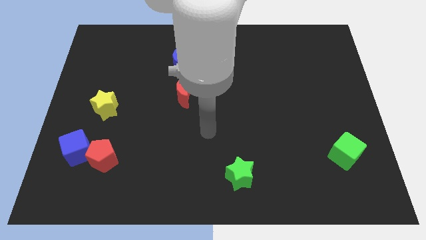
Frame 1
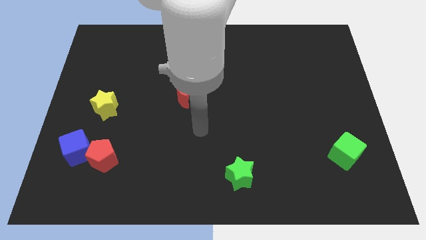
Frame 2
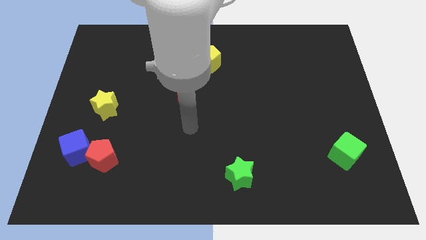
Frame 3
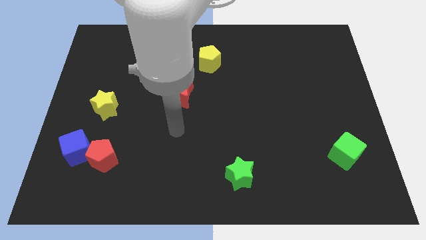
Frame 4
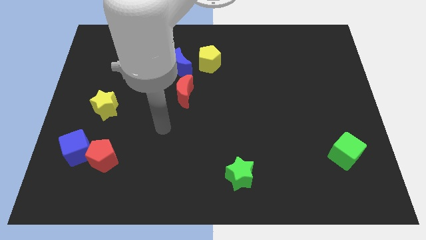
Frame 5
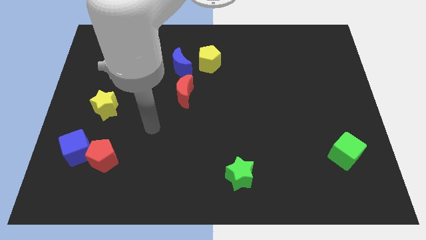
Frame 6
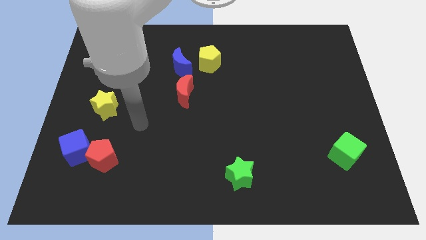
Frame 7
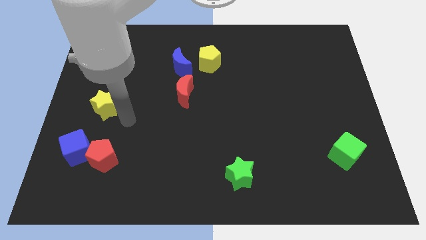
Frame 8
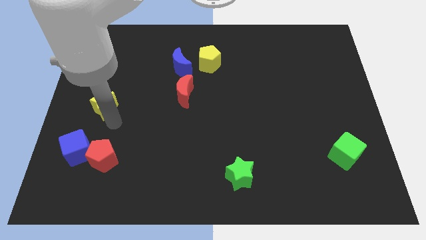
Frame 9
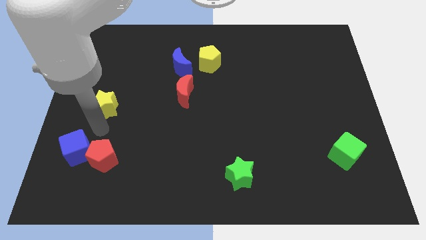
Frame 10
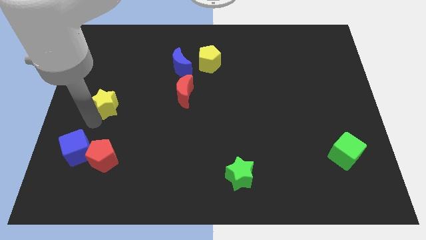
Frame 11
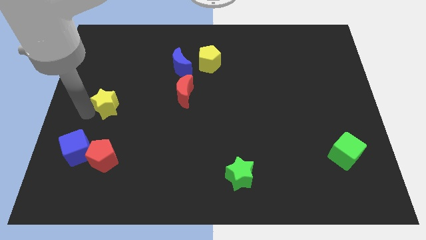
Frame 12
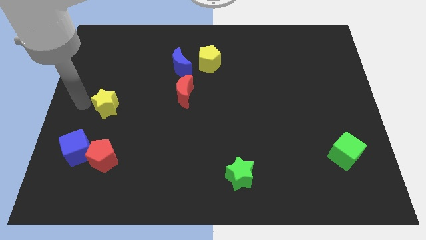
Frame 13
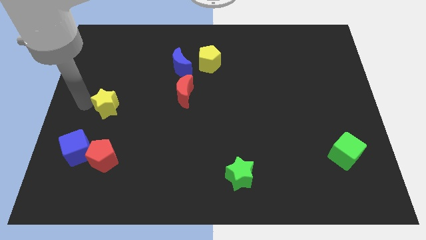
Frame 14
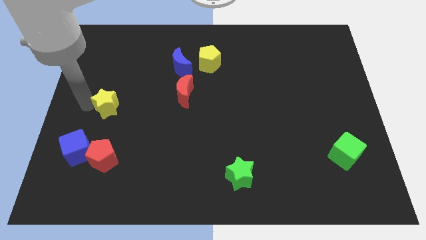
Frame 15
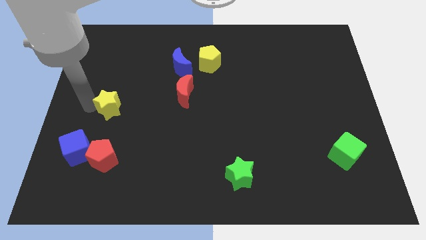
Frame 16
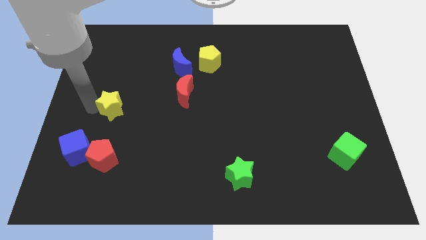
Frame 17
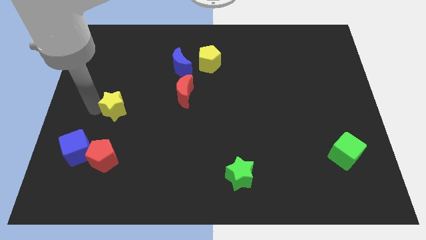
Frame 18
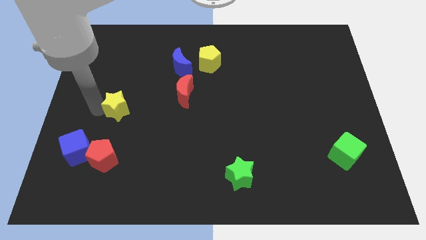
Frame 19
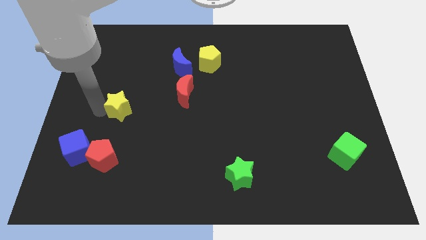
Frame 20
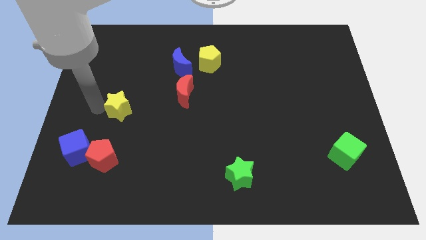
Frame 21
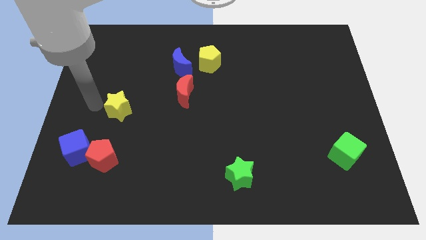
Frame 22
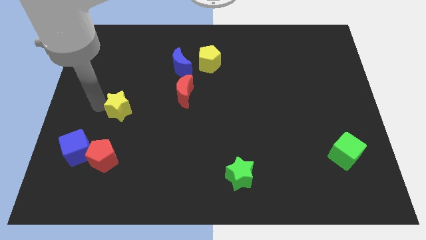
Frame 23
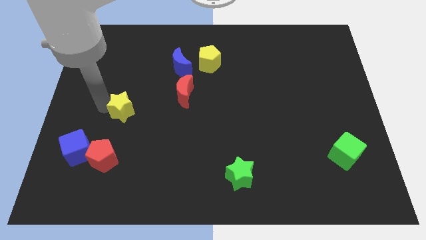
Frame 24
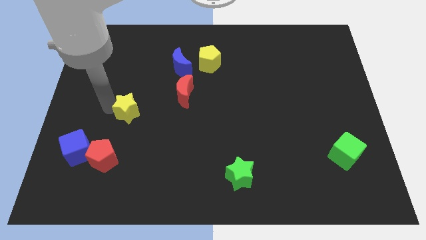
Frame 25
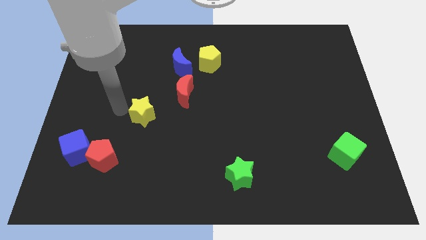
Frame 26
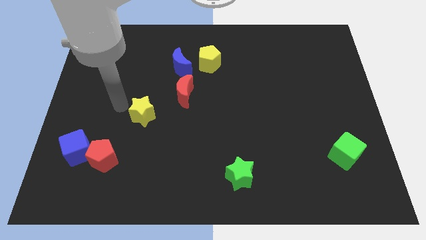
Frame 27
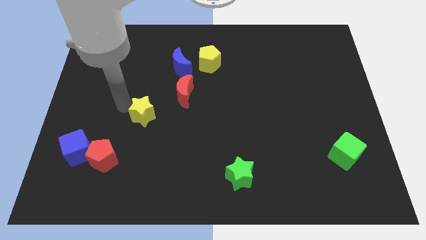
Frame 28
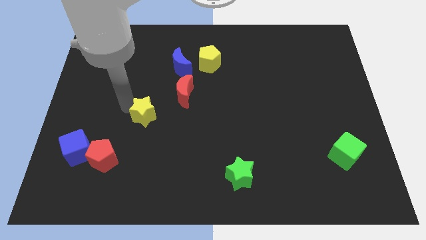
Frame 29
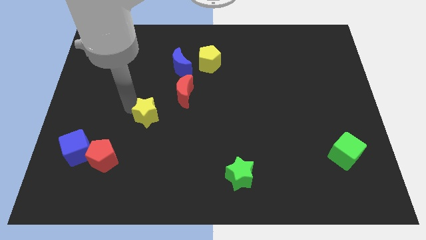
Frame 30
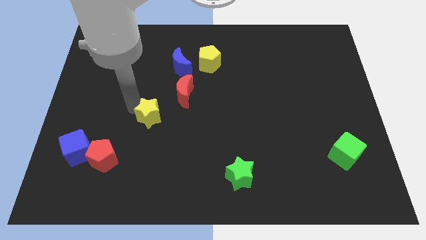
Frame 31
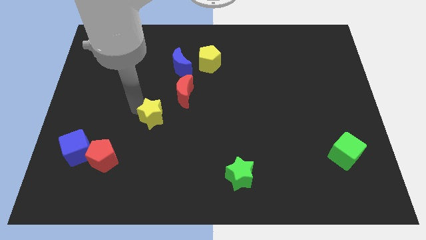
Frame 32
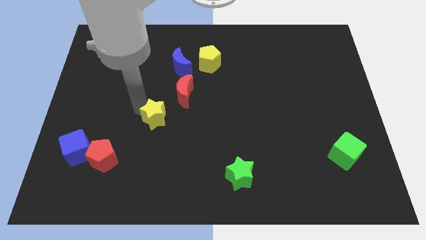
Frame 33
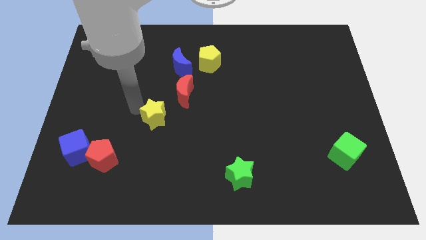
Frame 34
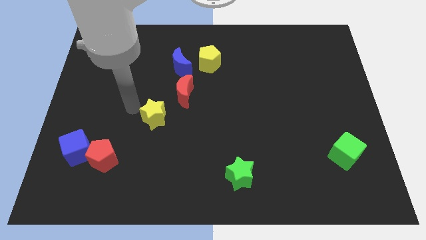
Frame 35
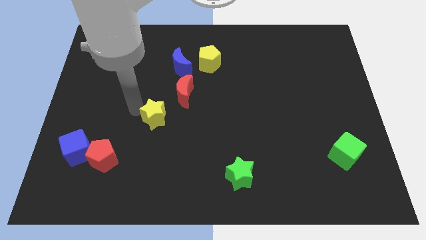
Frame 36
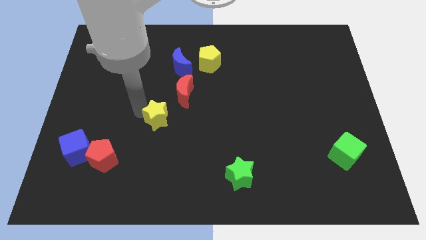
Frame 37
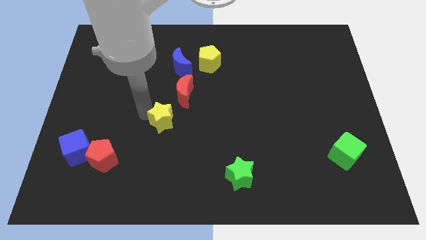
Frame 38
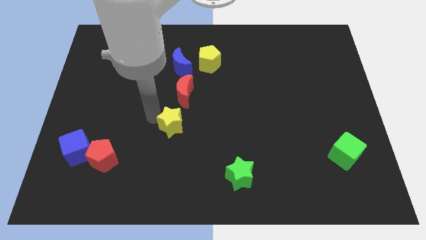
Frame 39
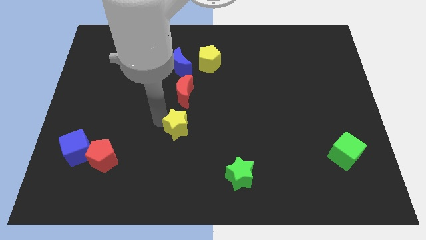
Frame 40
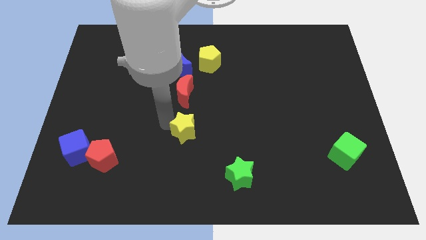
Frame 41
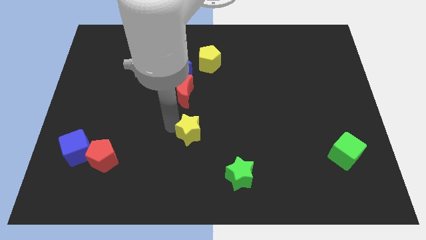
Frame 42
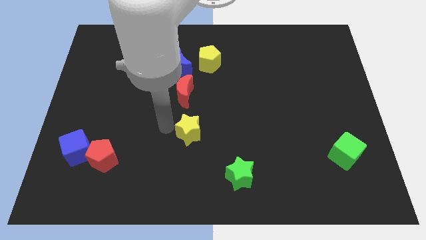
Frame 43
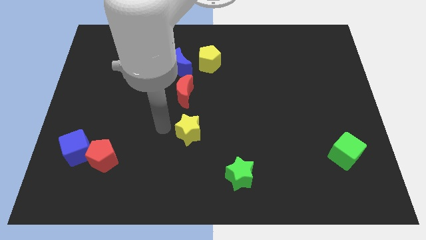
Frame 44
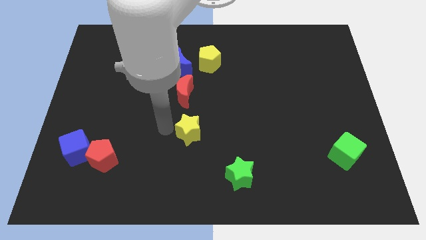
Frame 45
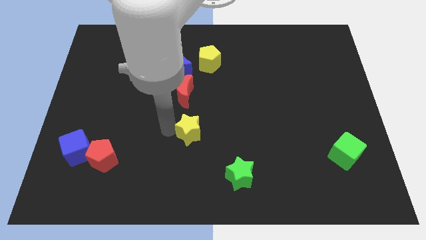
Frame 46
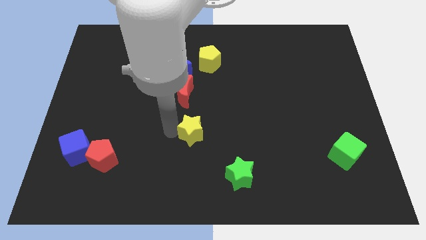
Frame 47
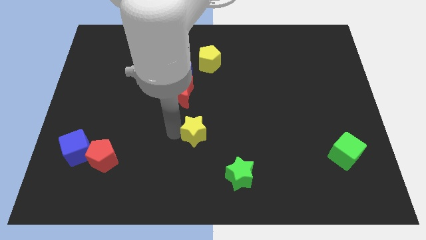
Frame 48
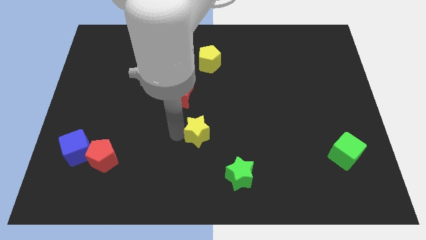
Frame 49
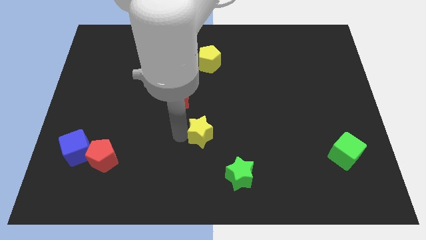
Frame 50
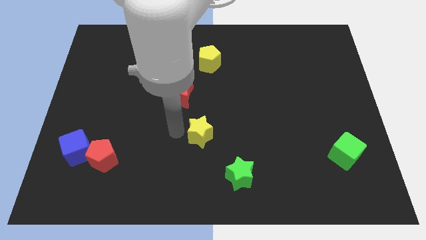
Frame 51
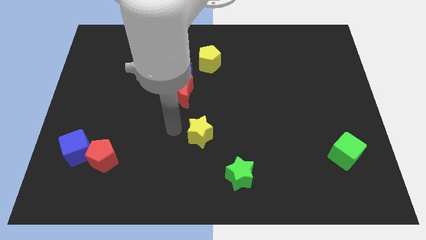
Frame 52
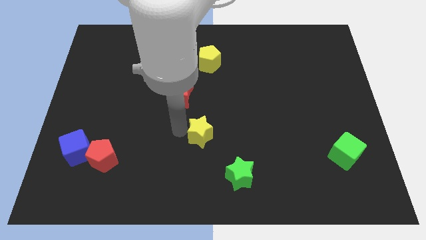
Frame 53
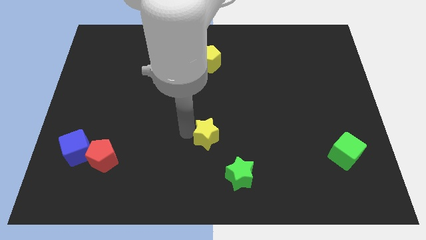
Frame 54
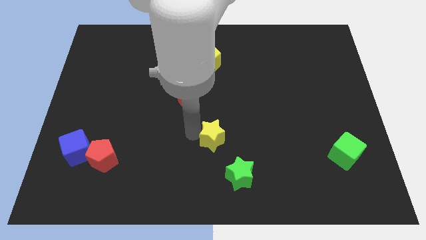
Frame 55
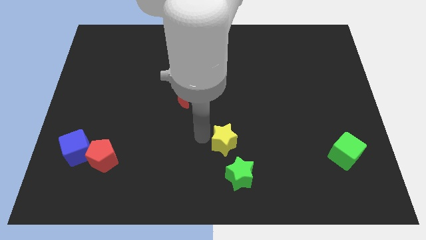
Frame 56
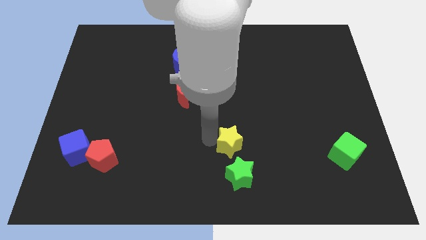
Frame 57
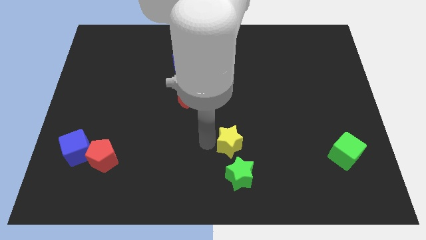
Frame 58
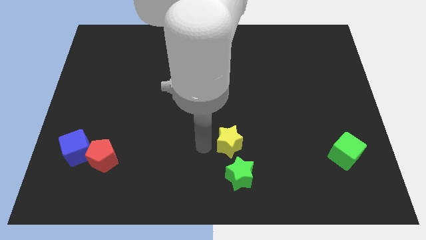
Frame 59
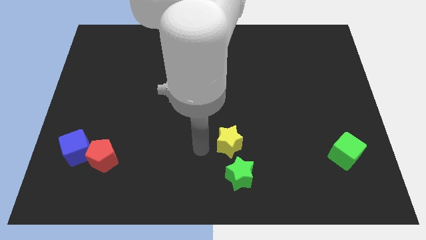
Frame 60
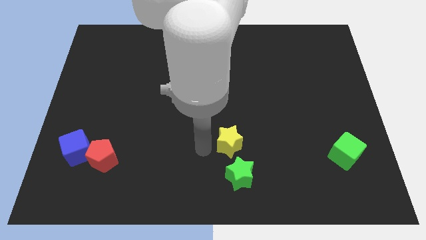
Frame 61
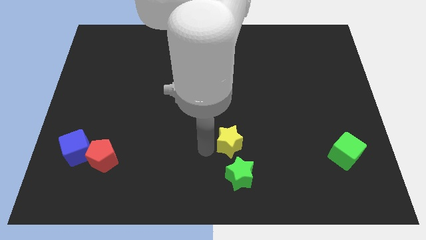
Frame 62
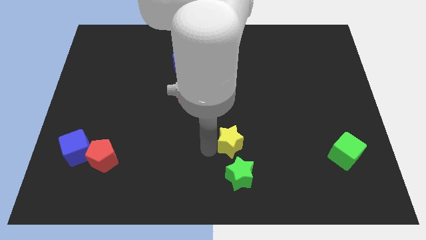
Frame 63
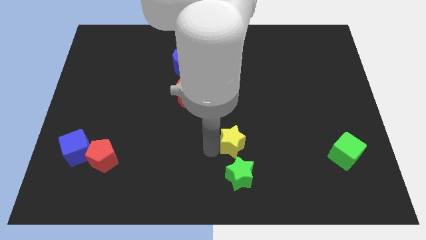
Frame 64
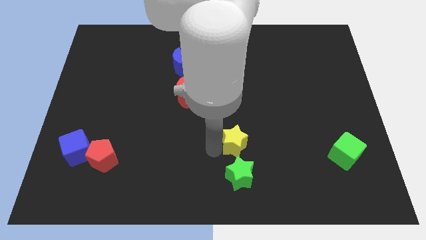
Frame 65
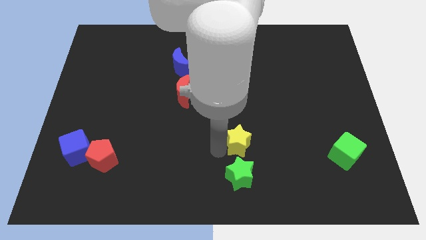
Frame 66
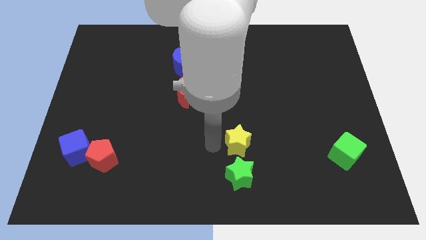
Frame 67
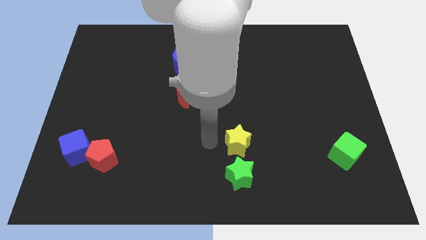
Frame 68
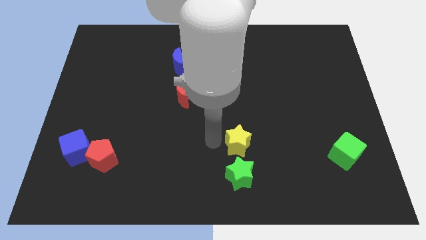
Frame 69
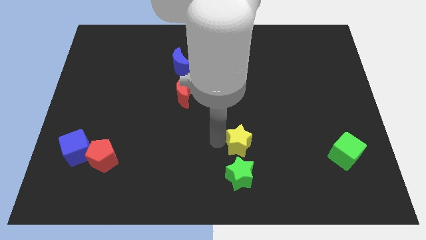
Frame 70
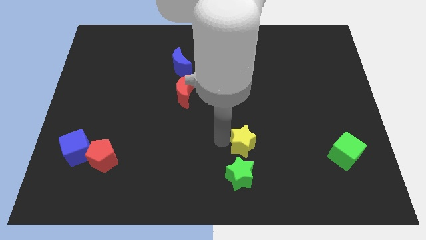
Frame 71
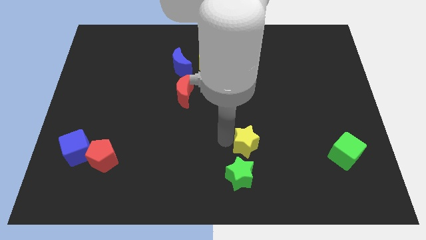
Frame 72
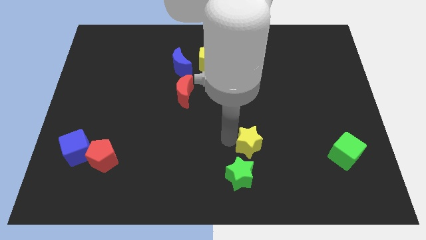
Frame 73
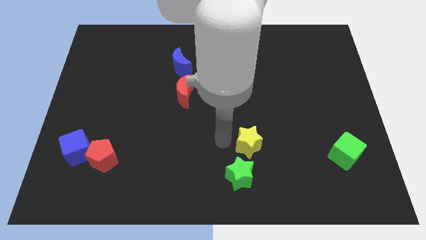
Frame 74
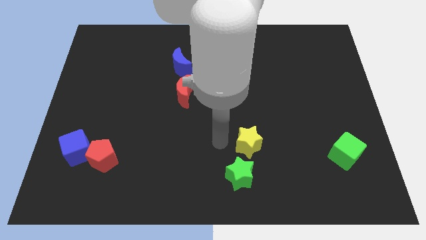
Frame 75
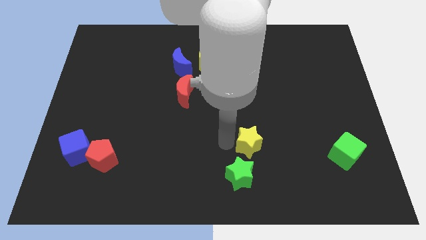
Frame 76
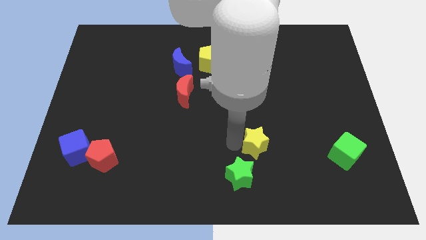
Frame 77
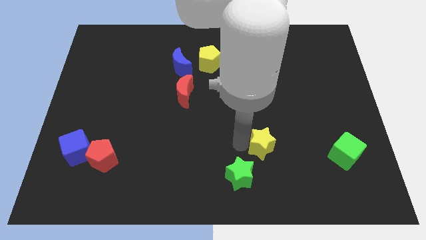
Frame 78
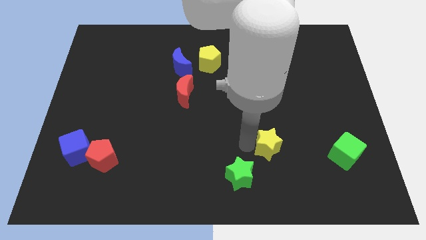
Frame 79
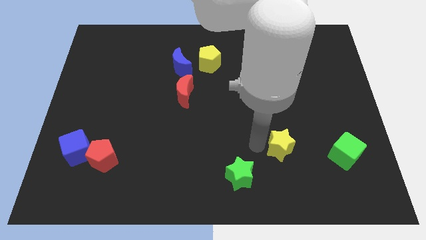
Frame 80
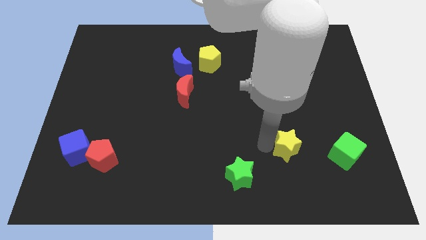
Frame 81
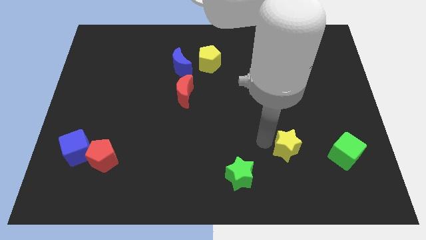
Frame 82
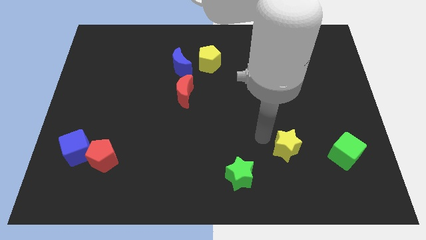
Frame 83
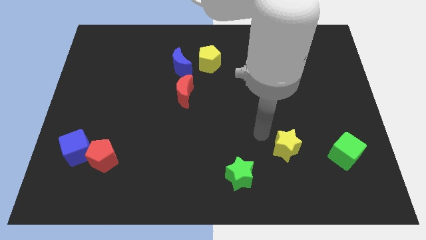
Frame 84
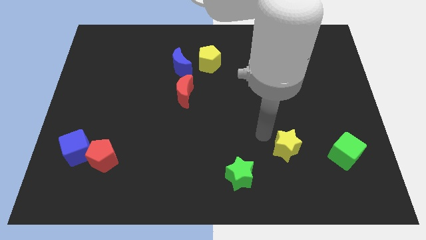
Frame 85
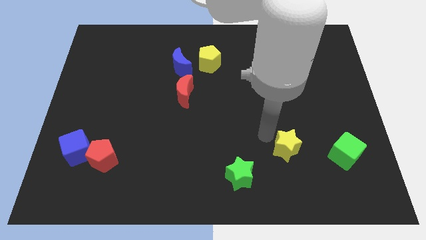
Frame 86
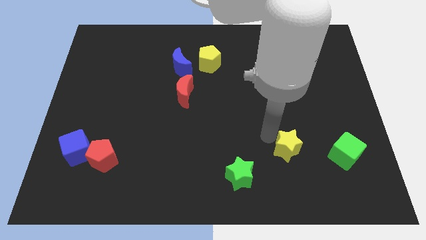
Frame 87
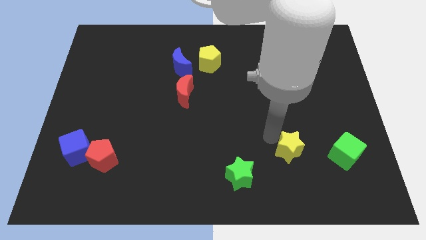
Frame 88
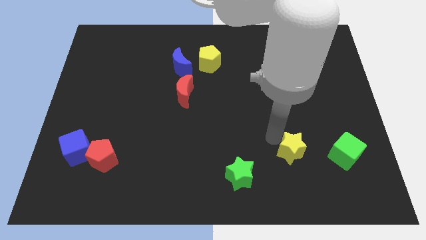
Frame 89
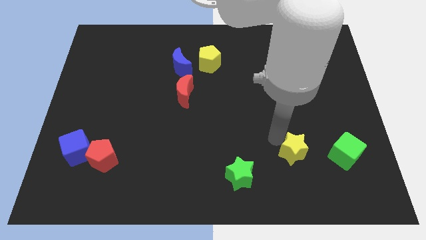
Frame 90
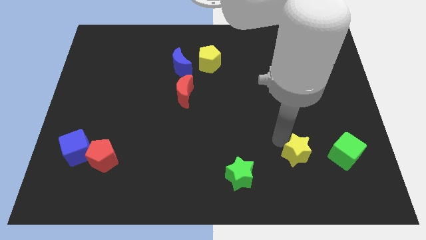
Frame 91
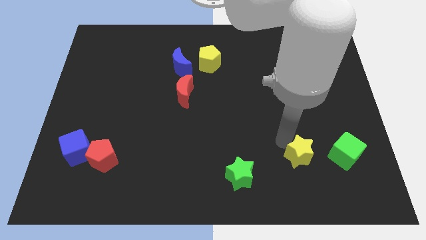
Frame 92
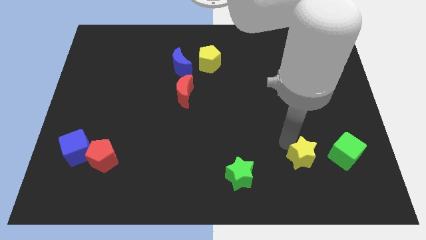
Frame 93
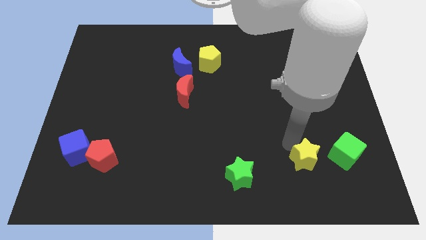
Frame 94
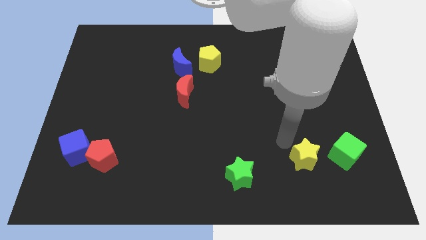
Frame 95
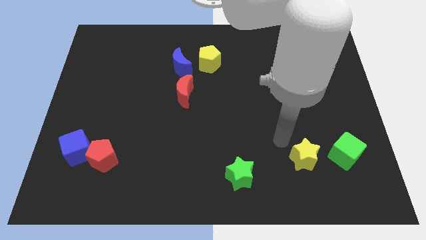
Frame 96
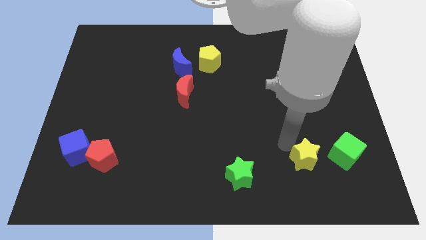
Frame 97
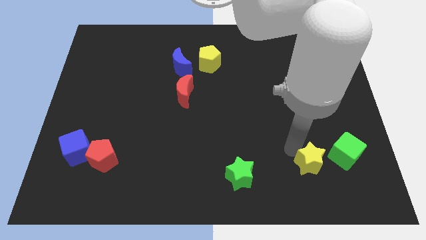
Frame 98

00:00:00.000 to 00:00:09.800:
move the yellow star to the bottom left side of the green cube
